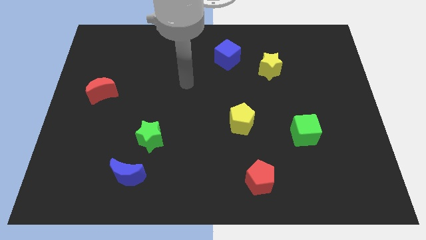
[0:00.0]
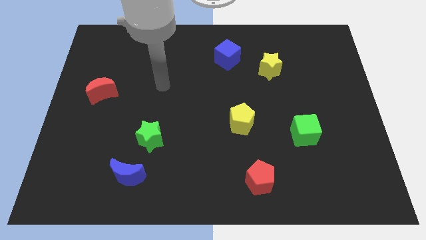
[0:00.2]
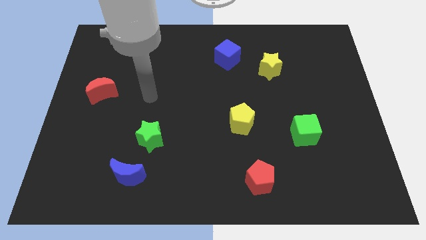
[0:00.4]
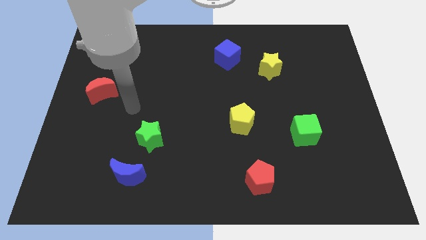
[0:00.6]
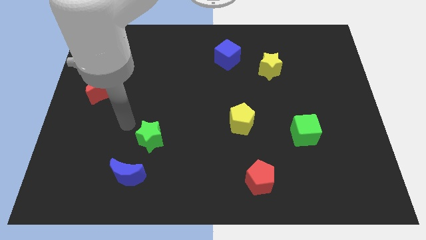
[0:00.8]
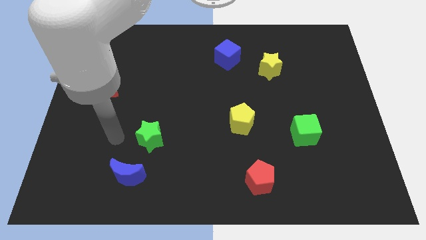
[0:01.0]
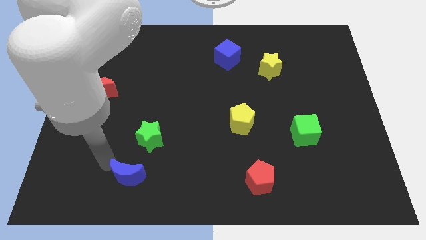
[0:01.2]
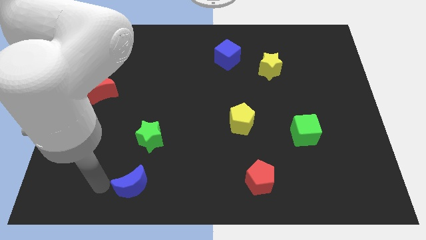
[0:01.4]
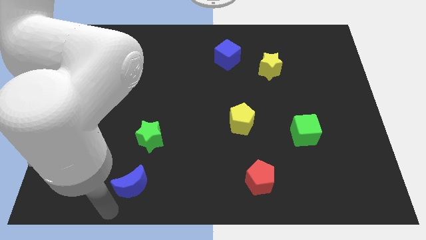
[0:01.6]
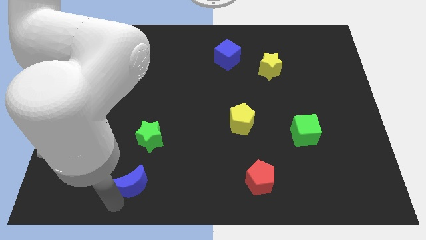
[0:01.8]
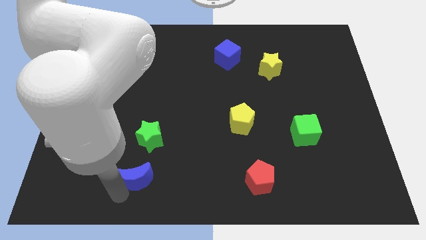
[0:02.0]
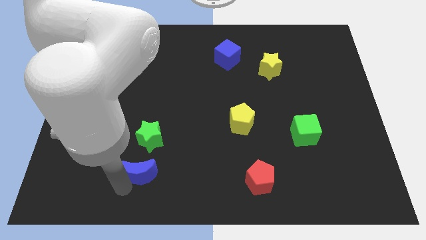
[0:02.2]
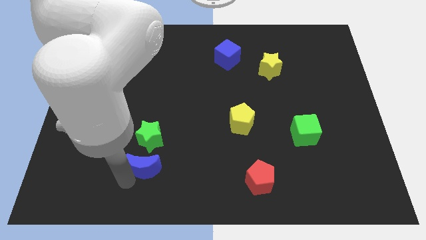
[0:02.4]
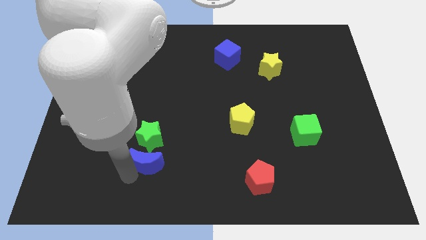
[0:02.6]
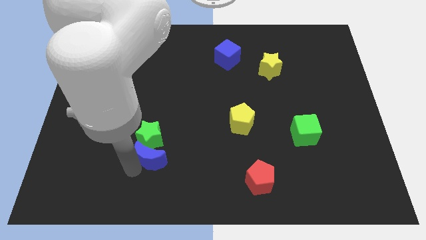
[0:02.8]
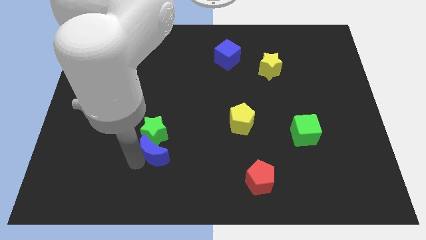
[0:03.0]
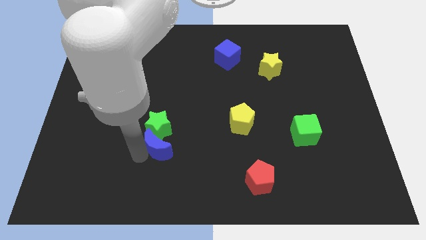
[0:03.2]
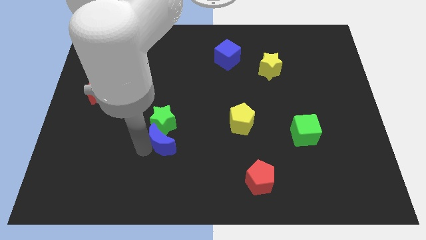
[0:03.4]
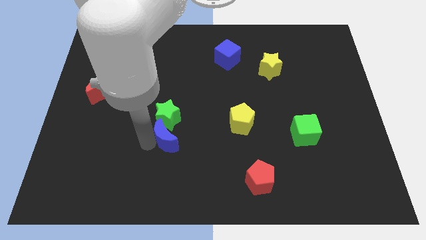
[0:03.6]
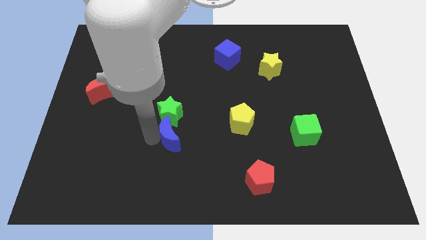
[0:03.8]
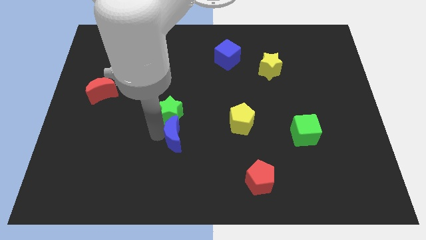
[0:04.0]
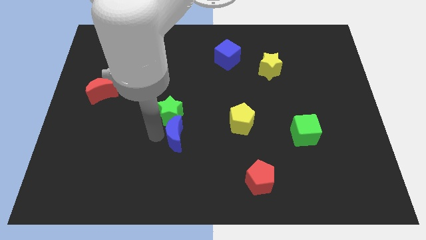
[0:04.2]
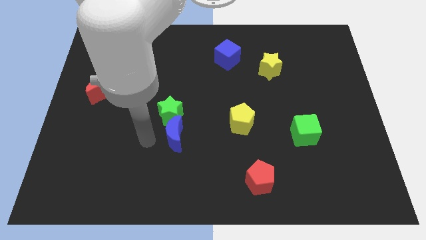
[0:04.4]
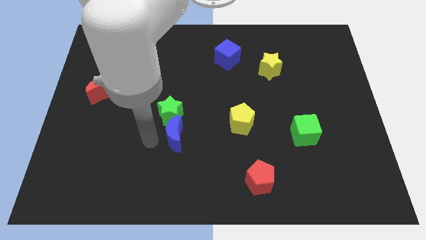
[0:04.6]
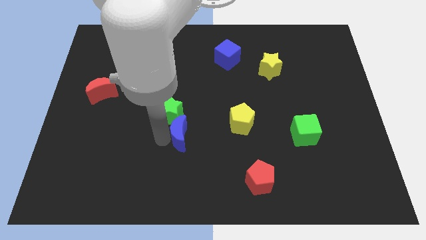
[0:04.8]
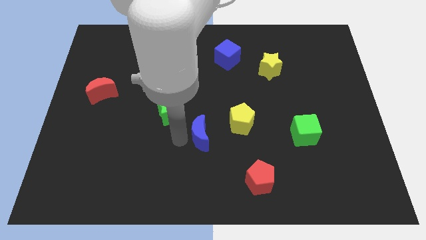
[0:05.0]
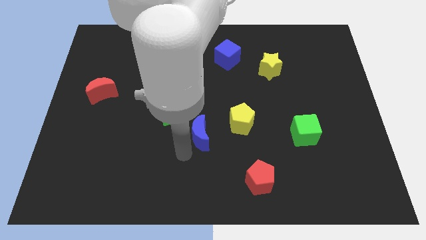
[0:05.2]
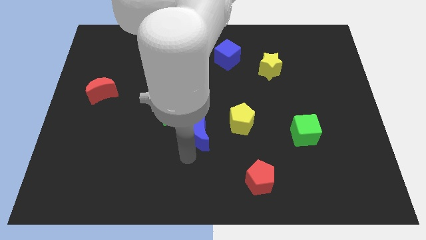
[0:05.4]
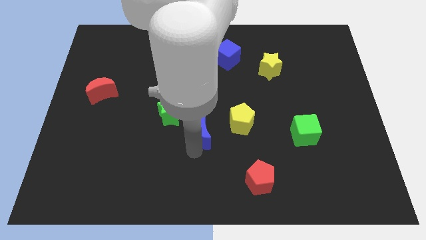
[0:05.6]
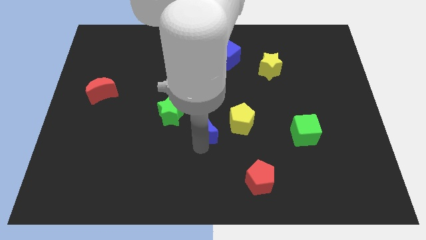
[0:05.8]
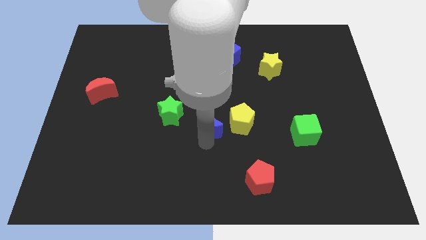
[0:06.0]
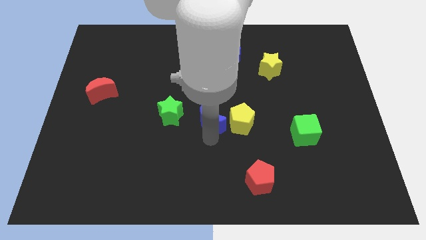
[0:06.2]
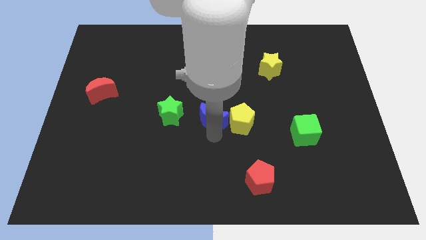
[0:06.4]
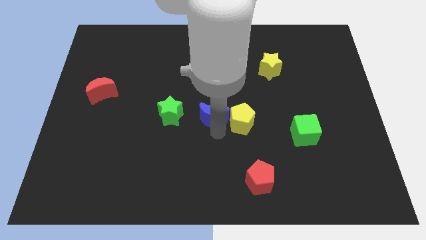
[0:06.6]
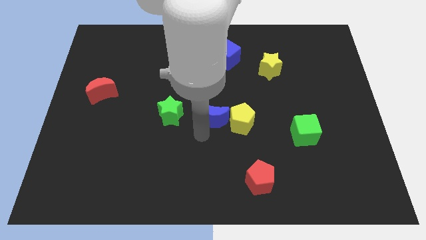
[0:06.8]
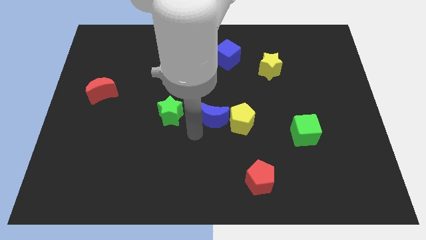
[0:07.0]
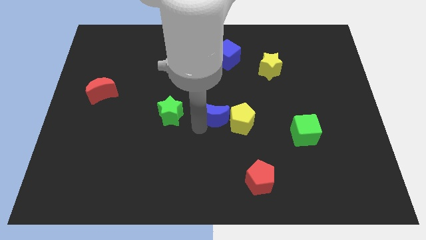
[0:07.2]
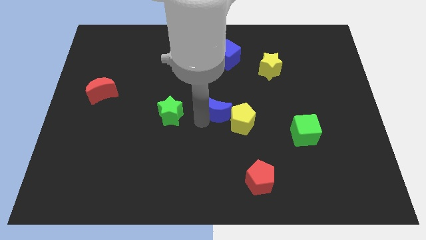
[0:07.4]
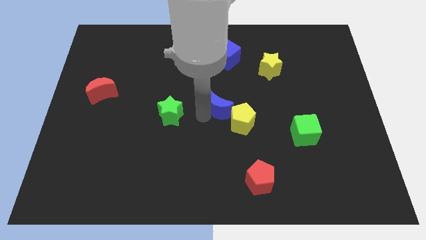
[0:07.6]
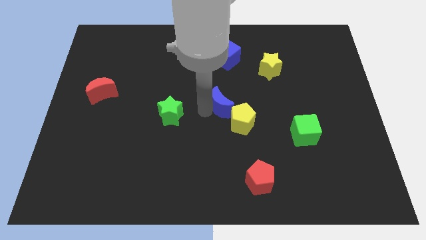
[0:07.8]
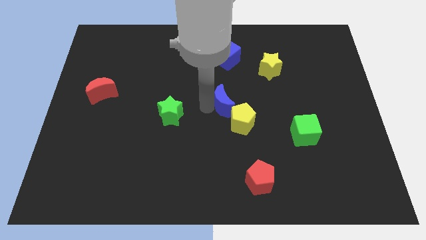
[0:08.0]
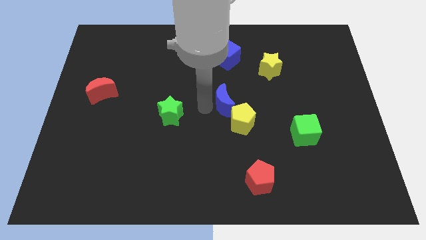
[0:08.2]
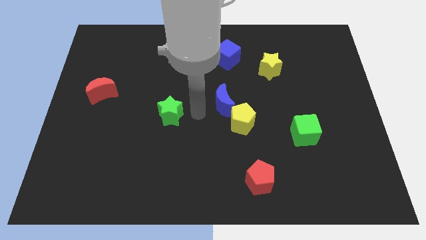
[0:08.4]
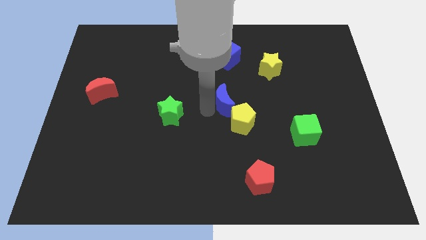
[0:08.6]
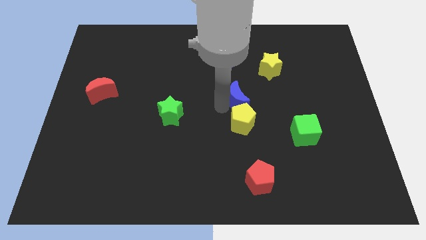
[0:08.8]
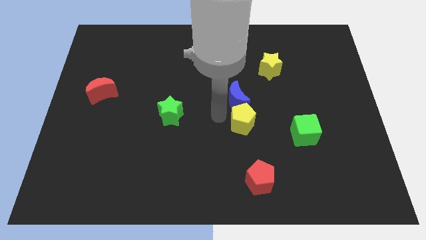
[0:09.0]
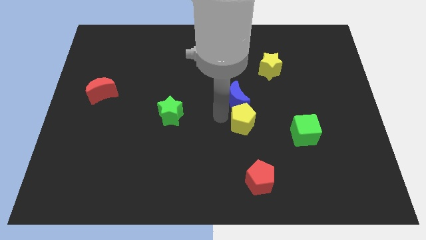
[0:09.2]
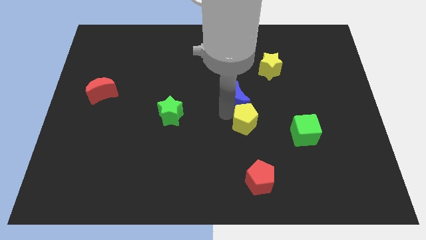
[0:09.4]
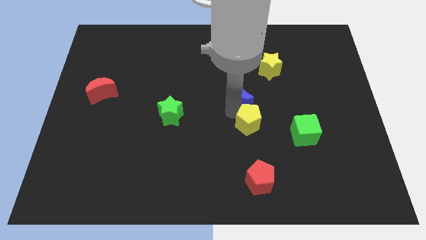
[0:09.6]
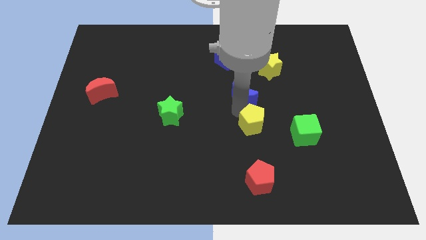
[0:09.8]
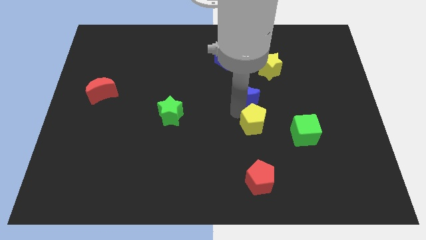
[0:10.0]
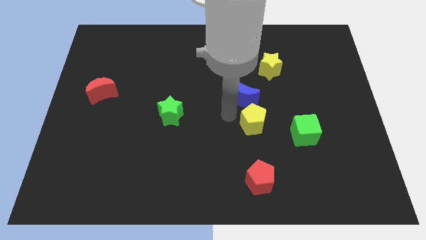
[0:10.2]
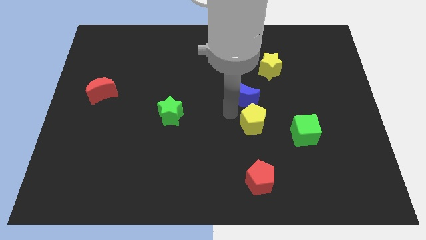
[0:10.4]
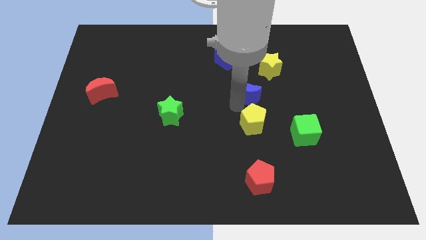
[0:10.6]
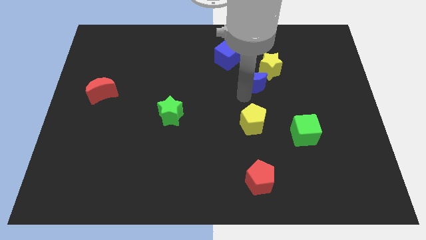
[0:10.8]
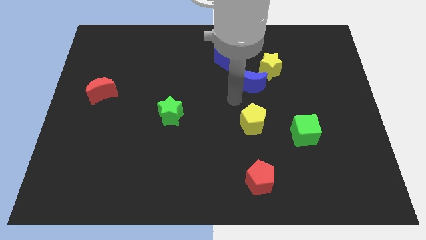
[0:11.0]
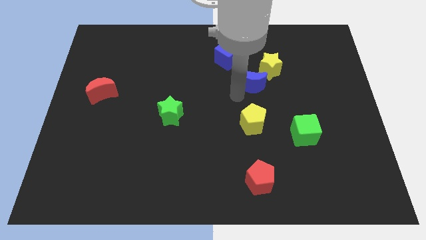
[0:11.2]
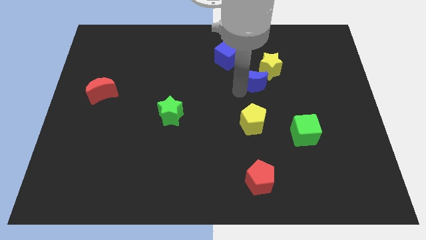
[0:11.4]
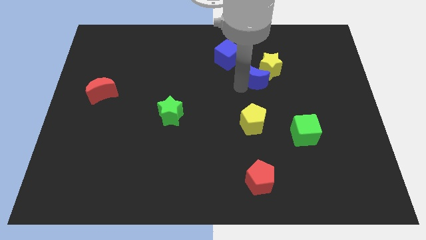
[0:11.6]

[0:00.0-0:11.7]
slide the blue moon to the yellow star

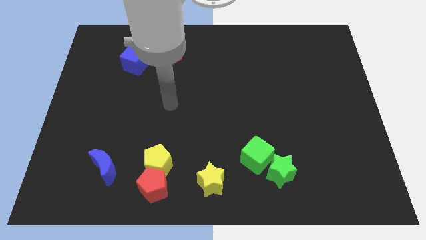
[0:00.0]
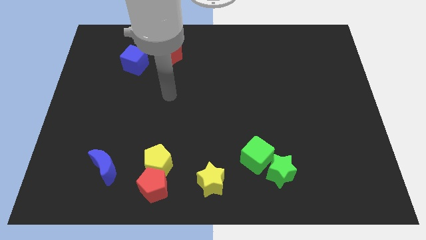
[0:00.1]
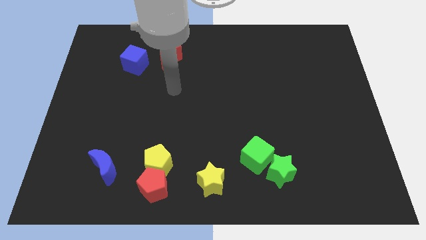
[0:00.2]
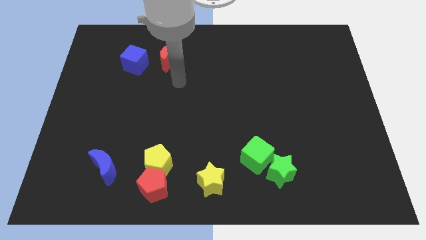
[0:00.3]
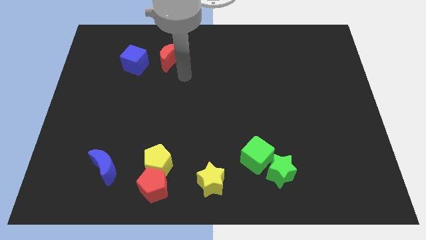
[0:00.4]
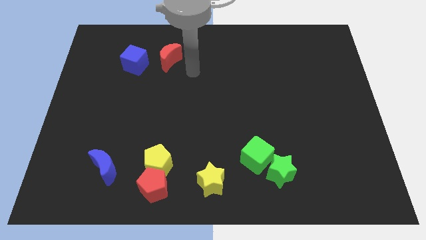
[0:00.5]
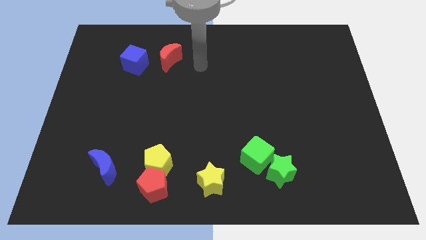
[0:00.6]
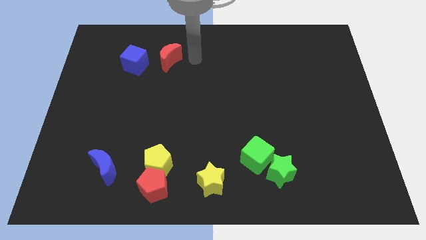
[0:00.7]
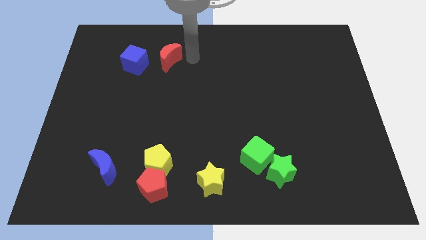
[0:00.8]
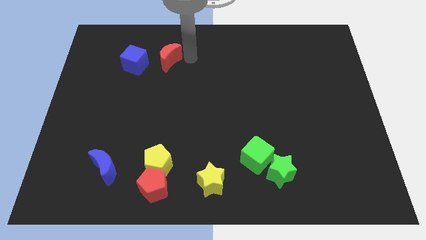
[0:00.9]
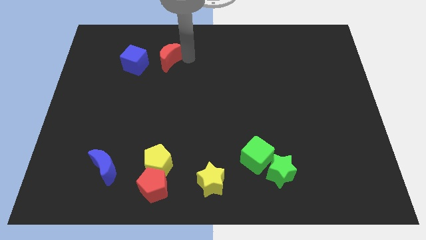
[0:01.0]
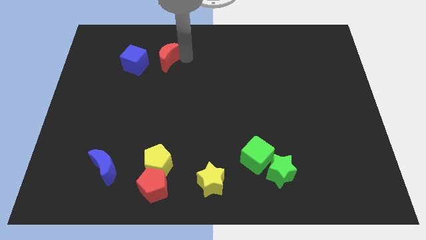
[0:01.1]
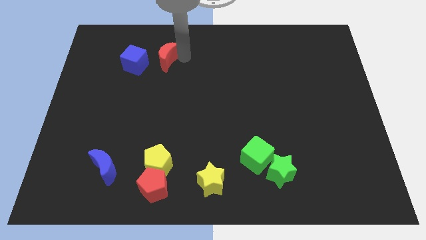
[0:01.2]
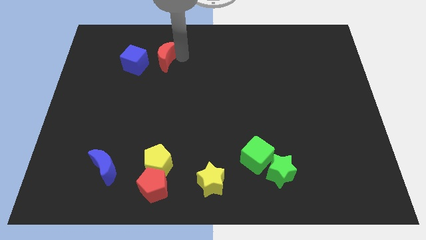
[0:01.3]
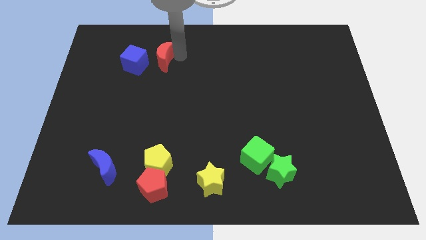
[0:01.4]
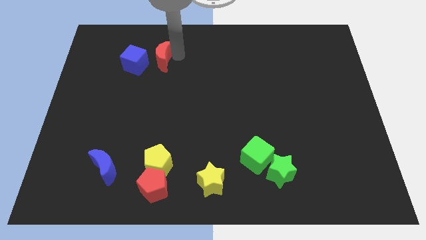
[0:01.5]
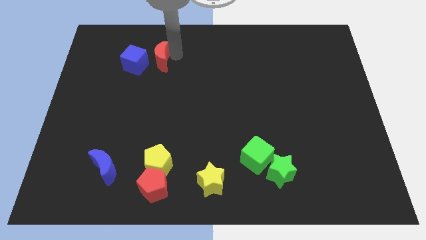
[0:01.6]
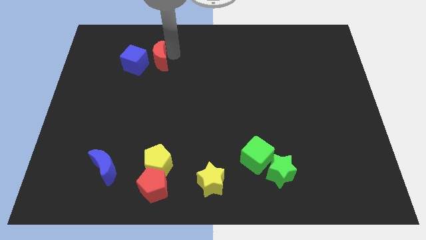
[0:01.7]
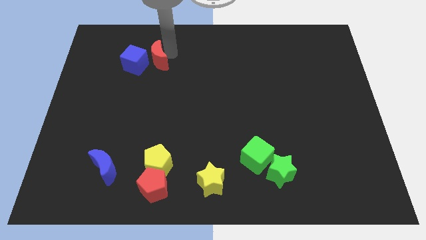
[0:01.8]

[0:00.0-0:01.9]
move the red moon towards the blue cube

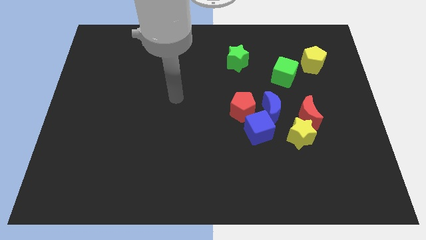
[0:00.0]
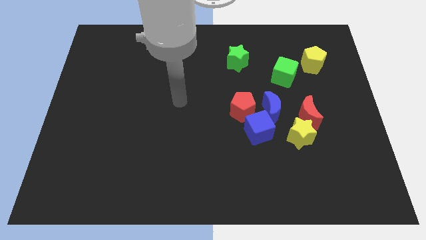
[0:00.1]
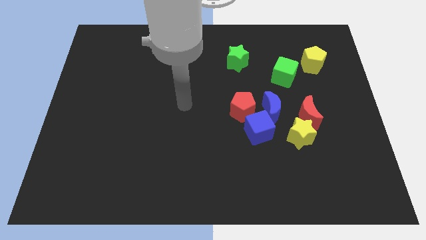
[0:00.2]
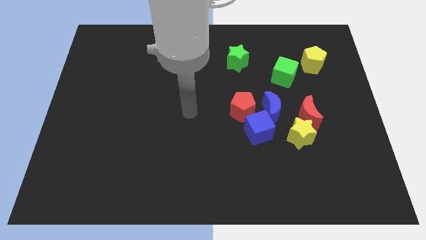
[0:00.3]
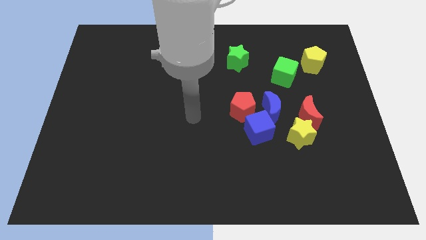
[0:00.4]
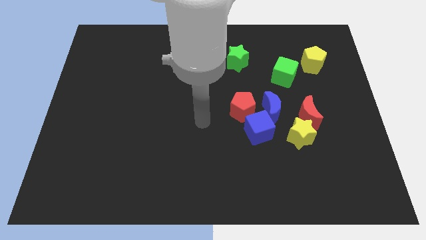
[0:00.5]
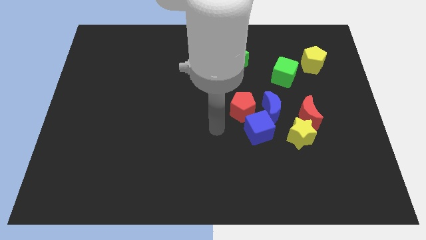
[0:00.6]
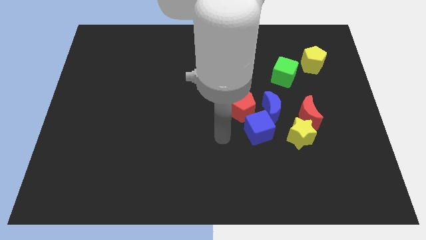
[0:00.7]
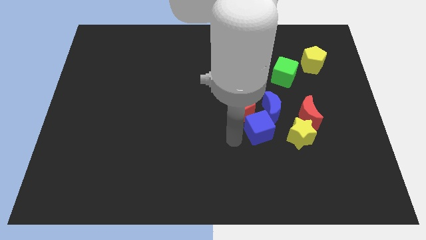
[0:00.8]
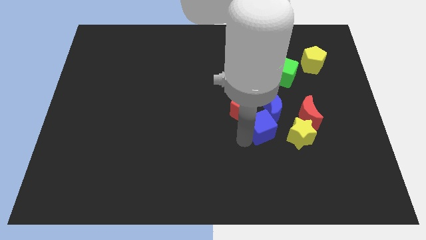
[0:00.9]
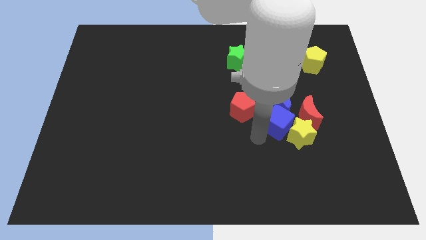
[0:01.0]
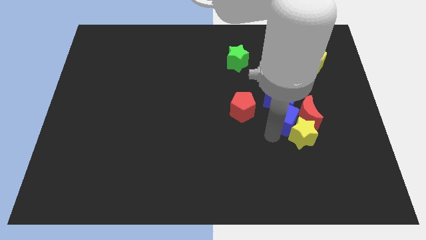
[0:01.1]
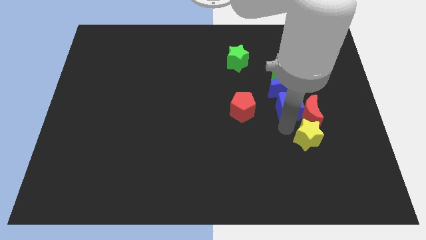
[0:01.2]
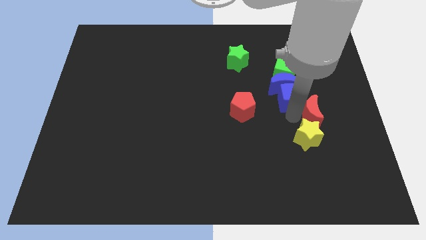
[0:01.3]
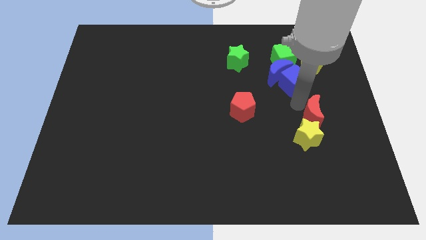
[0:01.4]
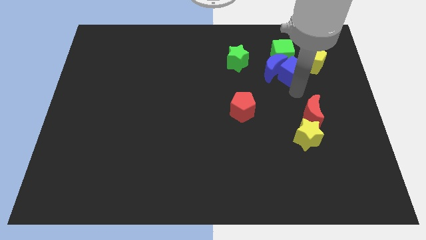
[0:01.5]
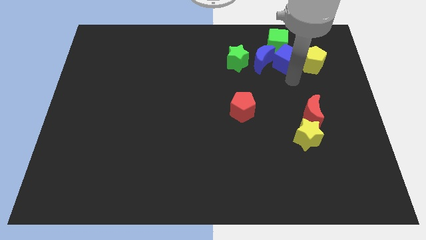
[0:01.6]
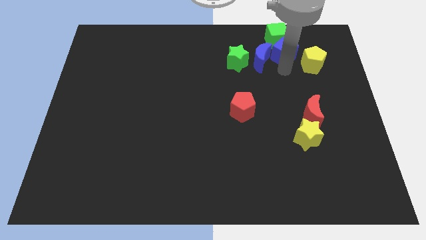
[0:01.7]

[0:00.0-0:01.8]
slide the blue moon next to the green star
